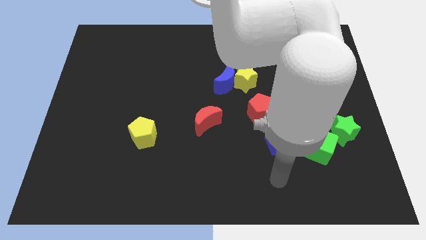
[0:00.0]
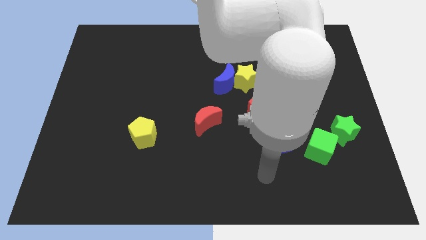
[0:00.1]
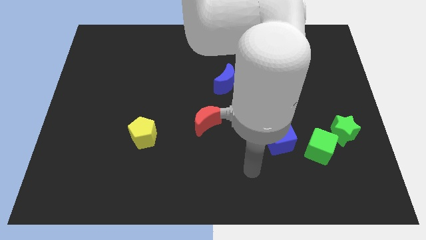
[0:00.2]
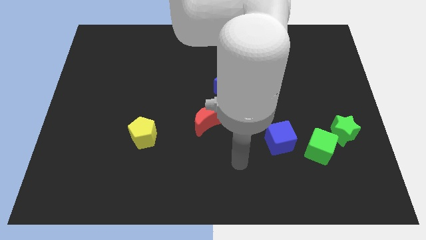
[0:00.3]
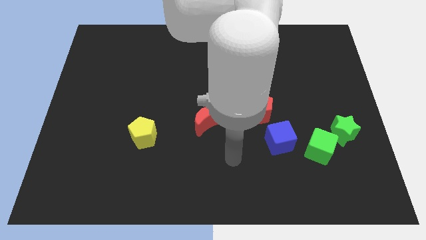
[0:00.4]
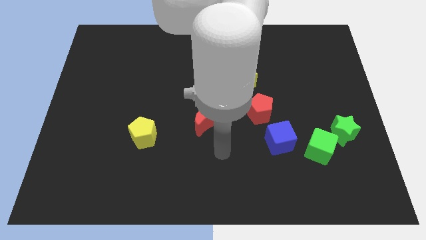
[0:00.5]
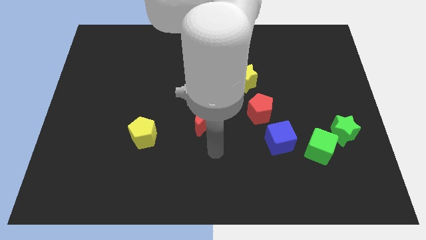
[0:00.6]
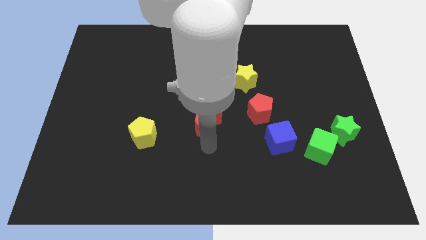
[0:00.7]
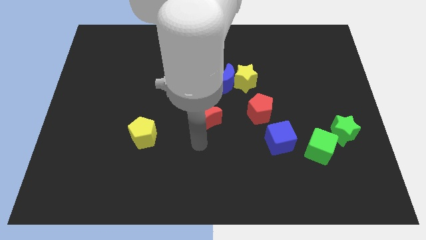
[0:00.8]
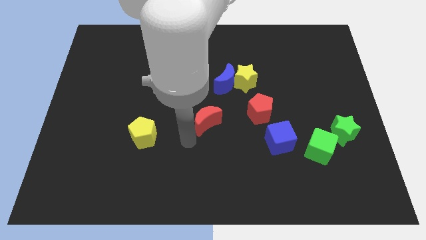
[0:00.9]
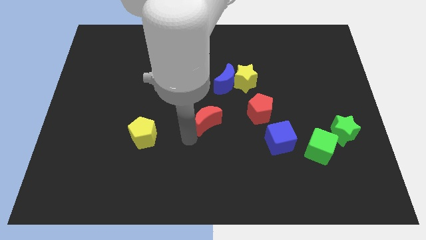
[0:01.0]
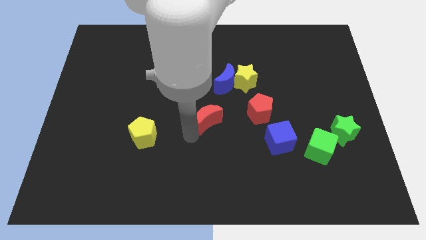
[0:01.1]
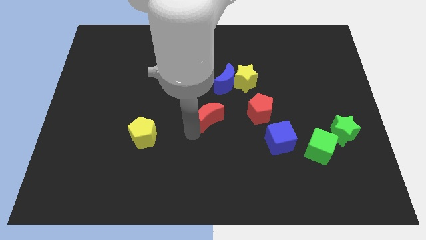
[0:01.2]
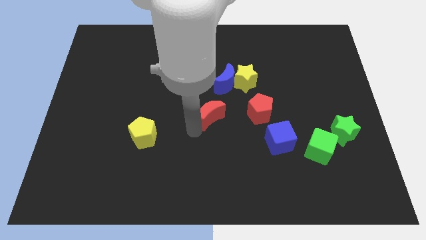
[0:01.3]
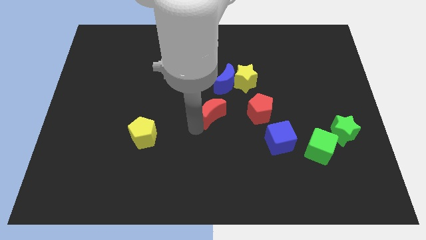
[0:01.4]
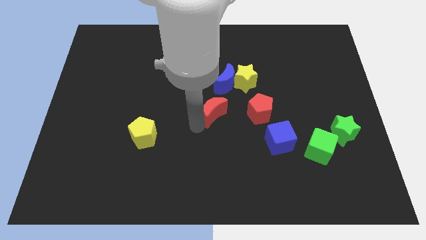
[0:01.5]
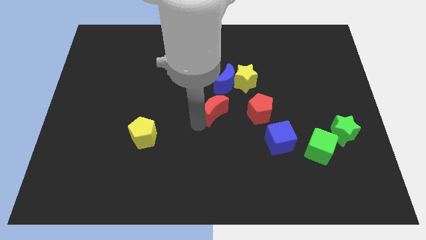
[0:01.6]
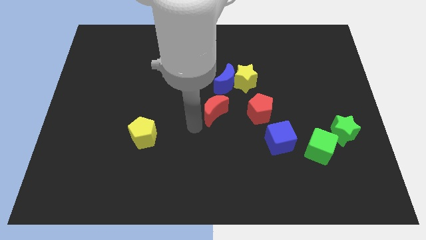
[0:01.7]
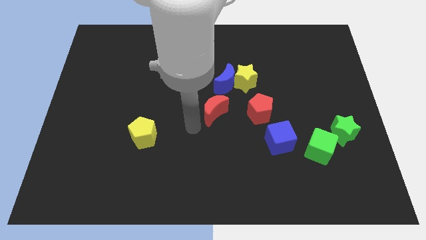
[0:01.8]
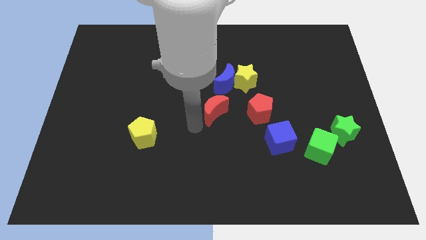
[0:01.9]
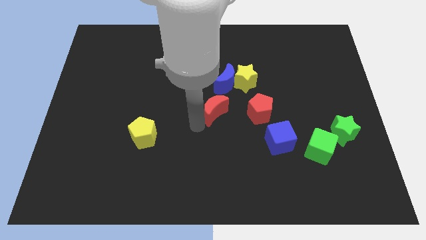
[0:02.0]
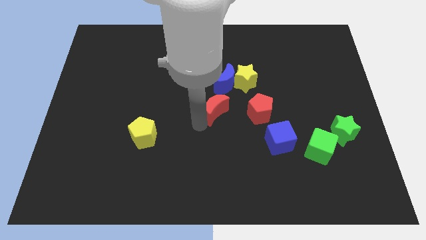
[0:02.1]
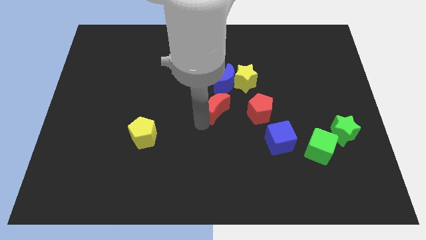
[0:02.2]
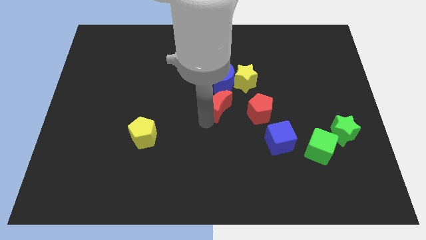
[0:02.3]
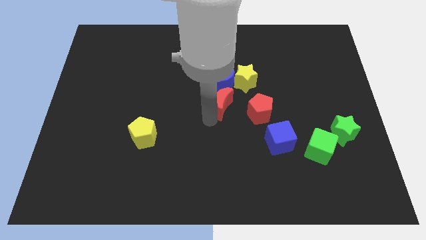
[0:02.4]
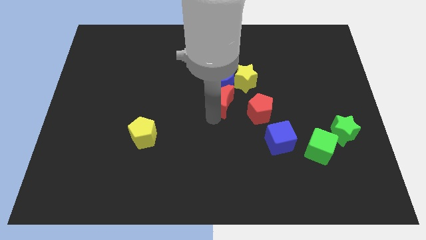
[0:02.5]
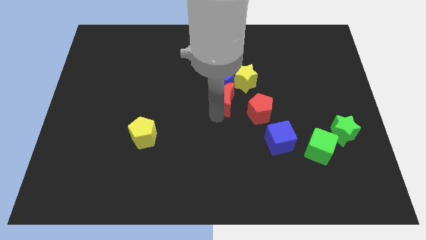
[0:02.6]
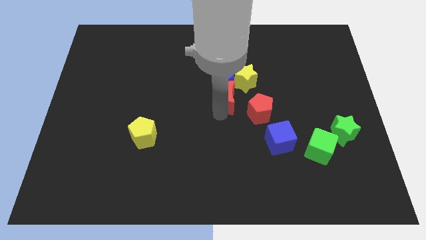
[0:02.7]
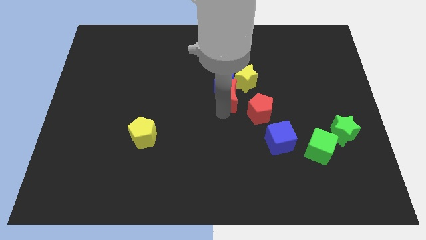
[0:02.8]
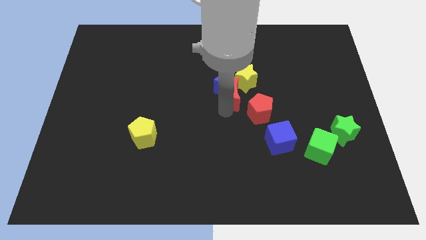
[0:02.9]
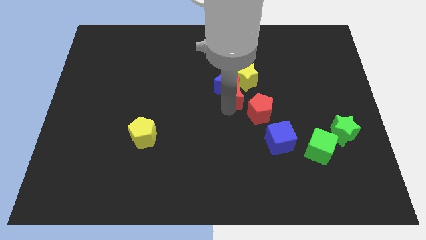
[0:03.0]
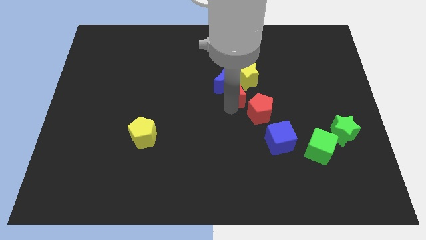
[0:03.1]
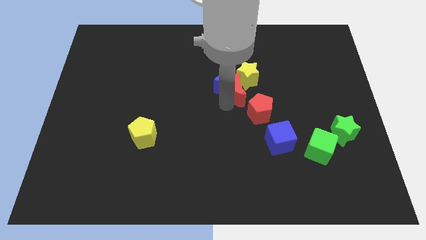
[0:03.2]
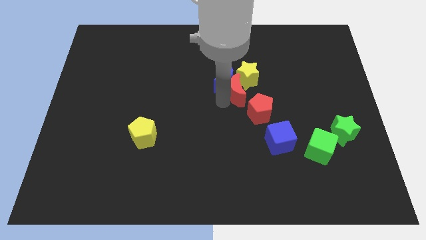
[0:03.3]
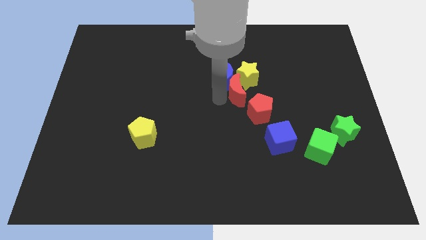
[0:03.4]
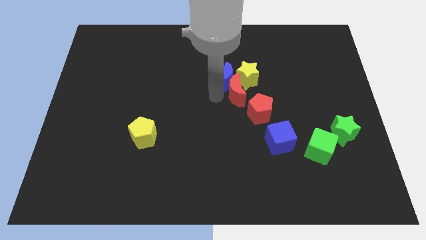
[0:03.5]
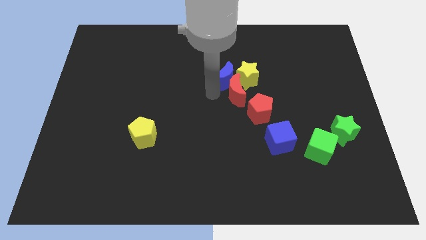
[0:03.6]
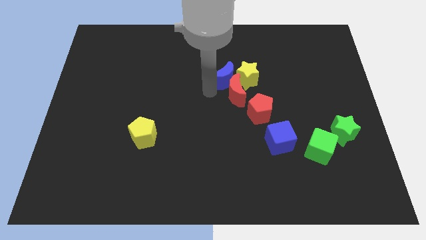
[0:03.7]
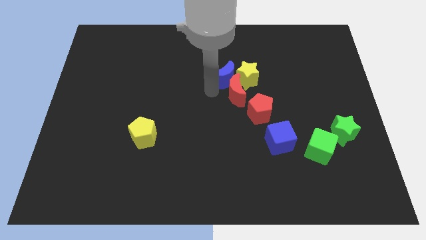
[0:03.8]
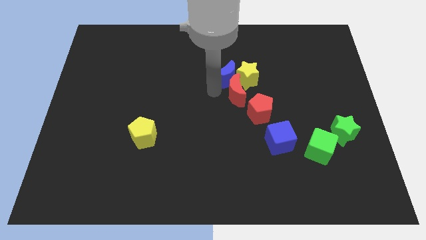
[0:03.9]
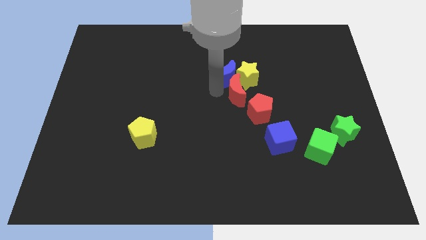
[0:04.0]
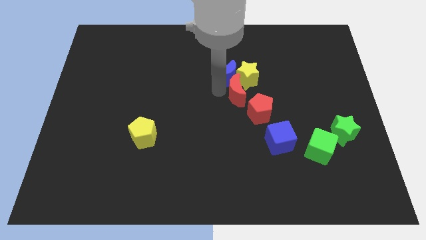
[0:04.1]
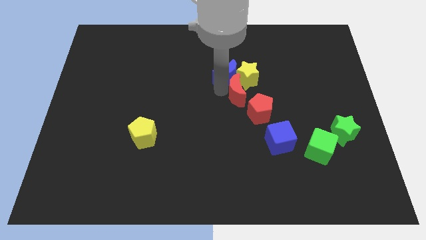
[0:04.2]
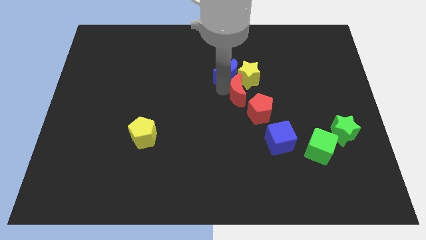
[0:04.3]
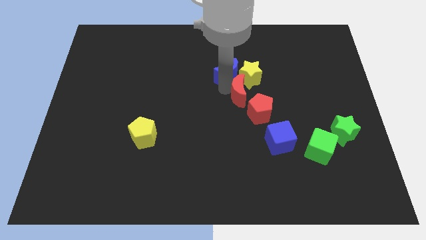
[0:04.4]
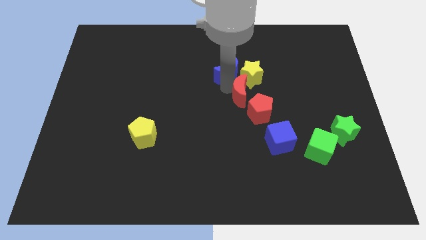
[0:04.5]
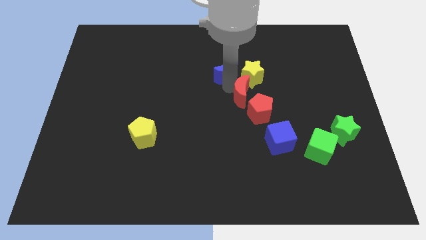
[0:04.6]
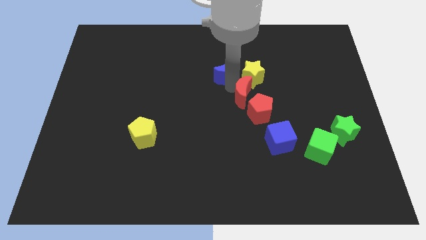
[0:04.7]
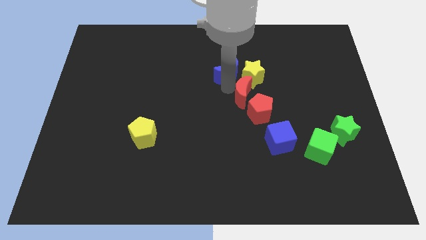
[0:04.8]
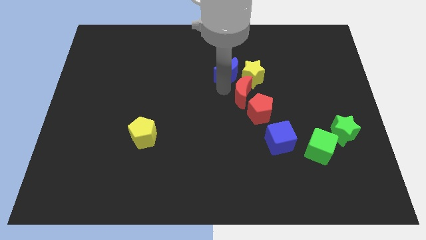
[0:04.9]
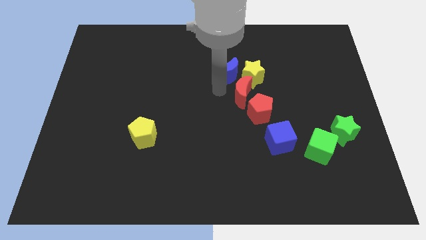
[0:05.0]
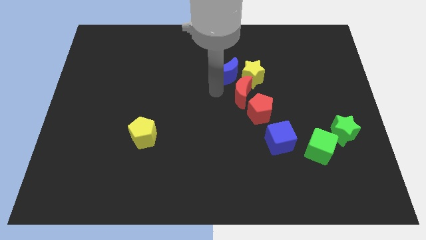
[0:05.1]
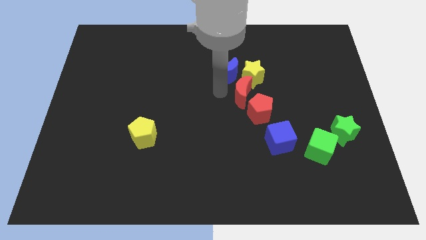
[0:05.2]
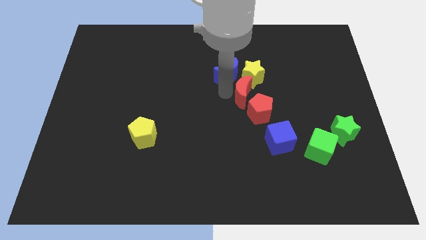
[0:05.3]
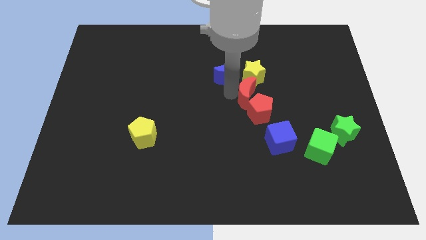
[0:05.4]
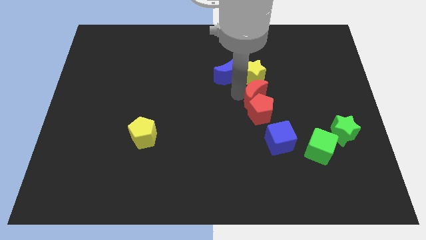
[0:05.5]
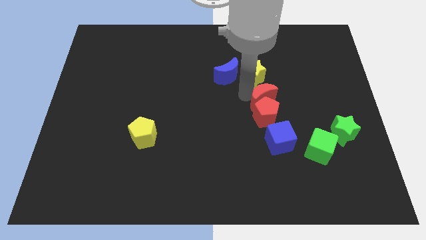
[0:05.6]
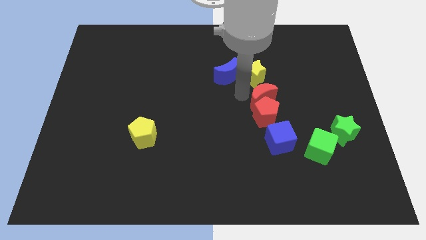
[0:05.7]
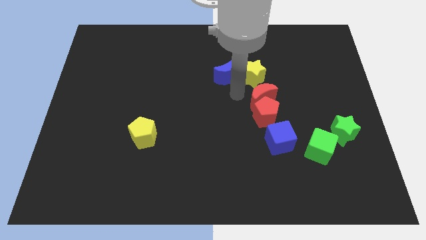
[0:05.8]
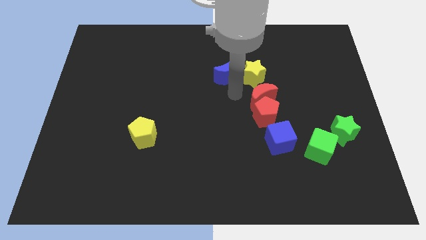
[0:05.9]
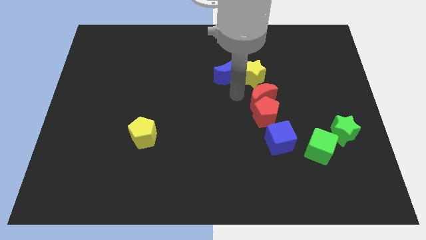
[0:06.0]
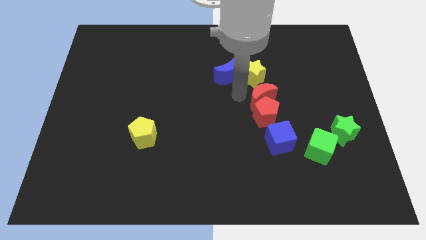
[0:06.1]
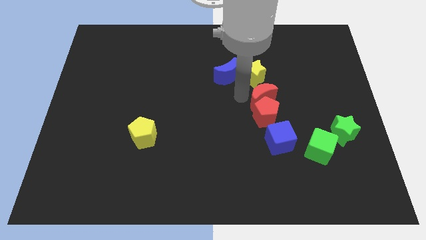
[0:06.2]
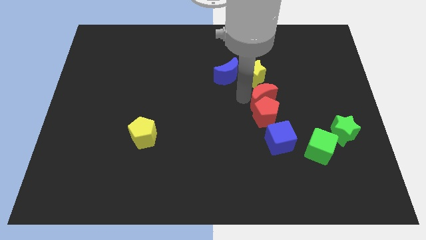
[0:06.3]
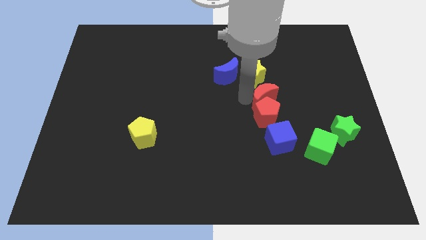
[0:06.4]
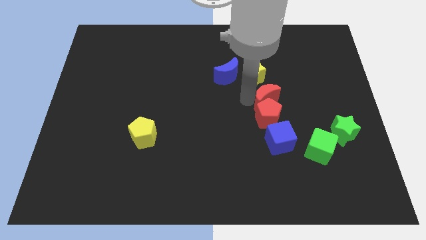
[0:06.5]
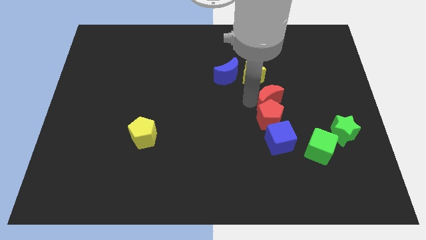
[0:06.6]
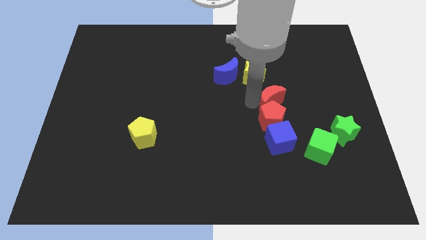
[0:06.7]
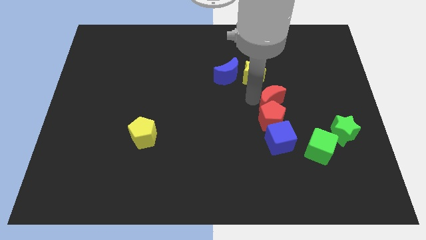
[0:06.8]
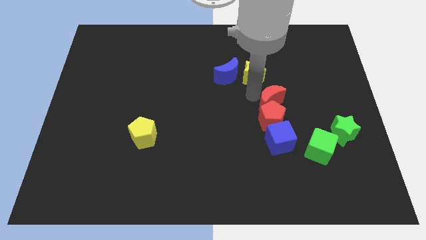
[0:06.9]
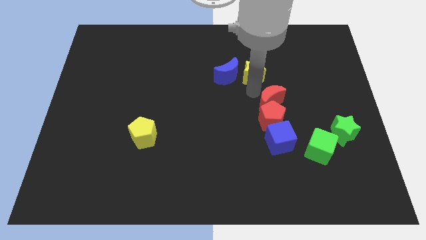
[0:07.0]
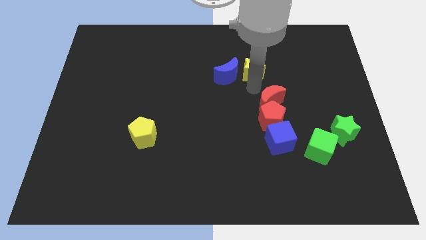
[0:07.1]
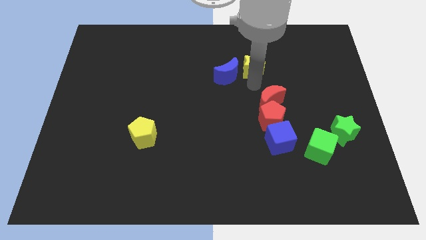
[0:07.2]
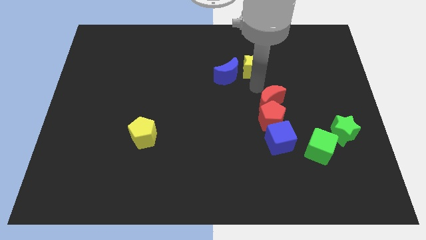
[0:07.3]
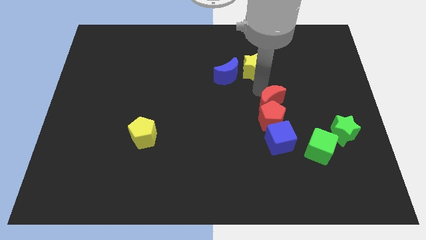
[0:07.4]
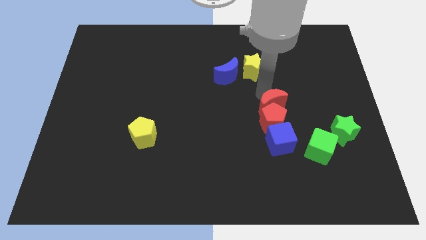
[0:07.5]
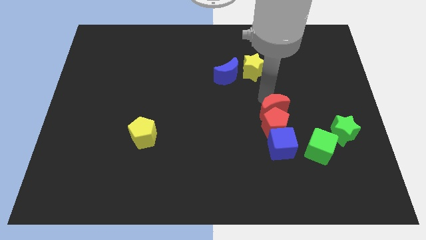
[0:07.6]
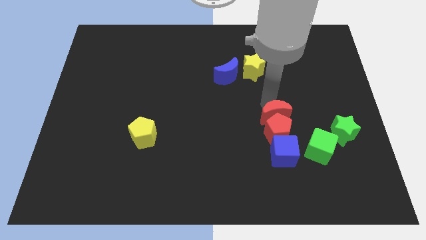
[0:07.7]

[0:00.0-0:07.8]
put the red moon diagonally up and to the left of the green cube
